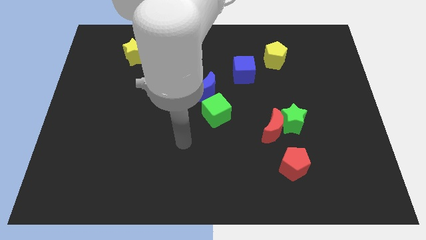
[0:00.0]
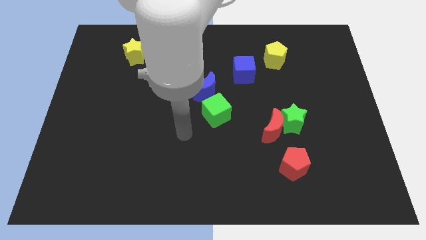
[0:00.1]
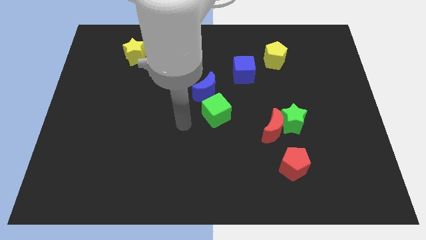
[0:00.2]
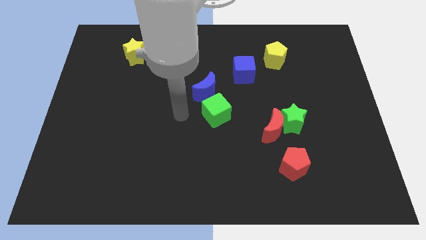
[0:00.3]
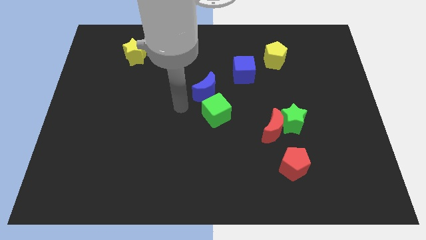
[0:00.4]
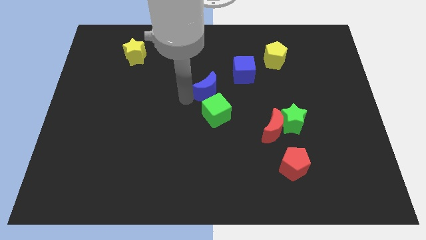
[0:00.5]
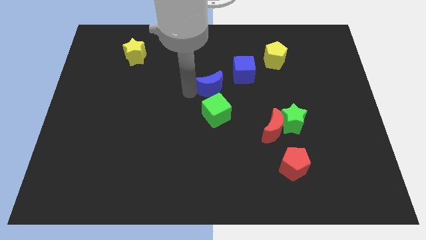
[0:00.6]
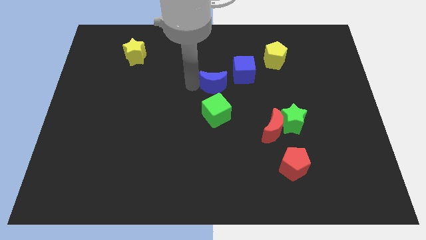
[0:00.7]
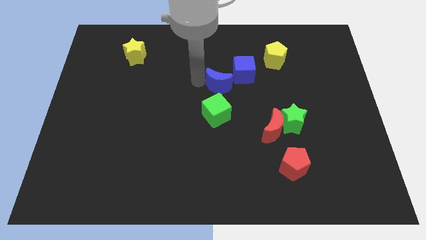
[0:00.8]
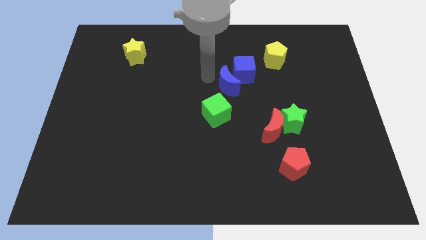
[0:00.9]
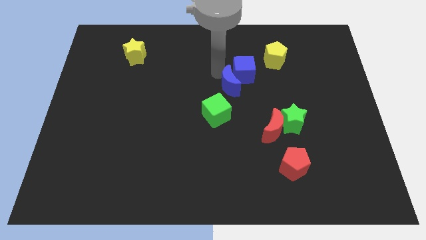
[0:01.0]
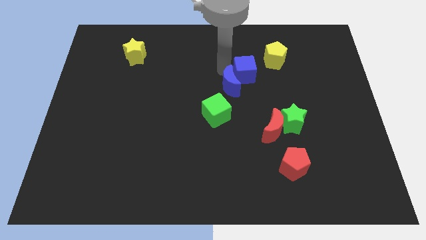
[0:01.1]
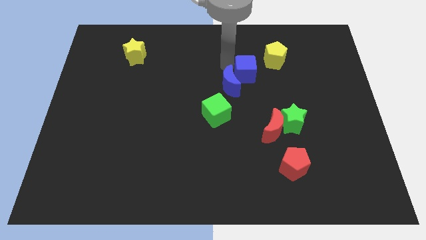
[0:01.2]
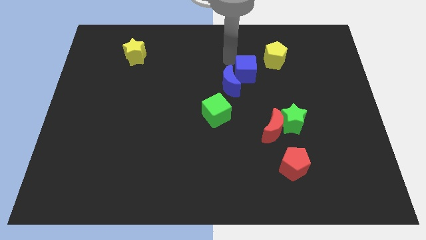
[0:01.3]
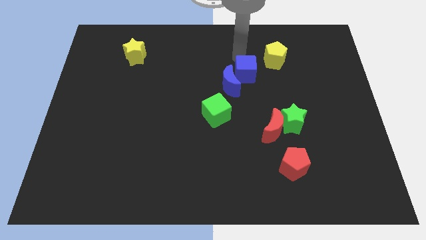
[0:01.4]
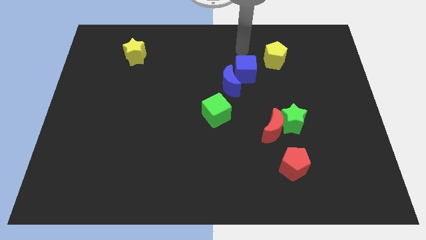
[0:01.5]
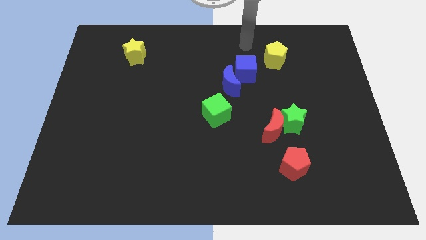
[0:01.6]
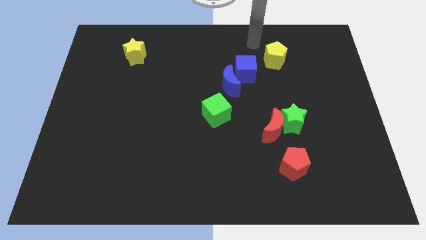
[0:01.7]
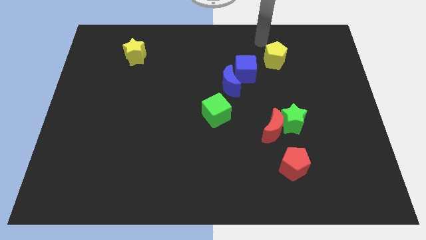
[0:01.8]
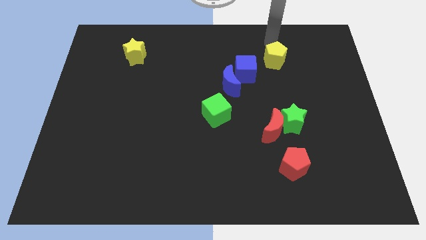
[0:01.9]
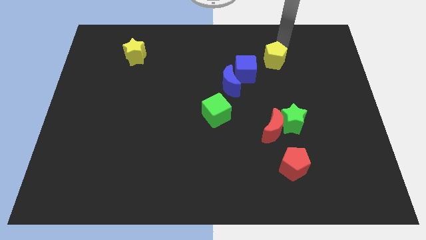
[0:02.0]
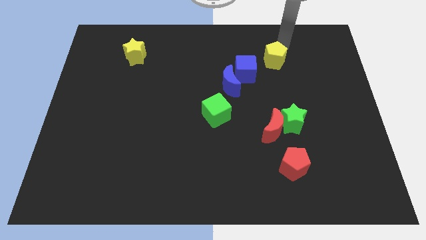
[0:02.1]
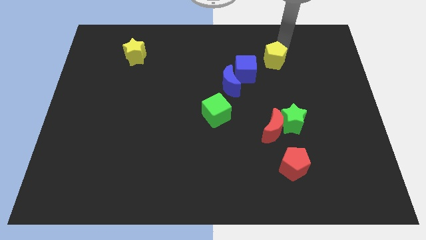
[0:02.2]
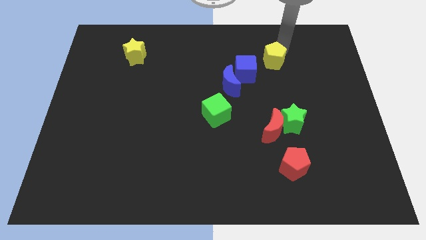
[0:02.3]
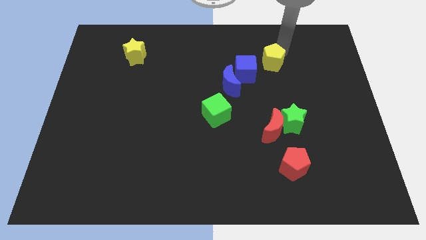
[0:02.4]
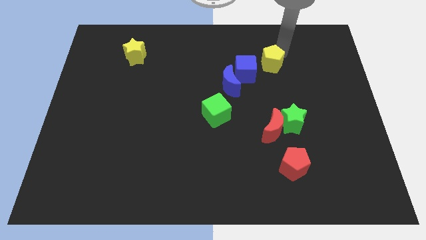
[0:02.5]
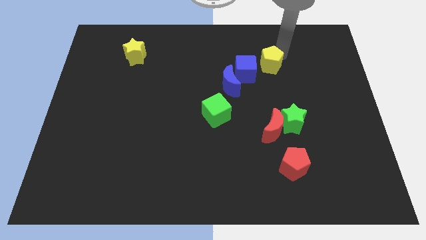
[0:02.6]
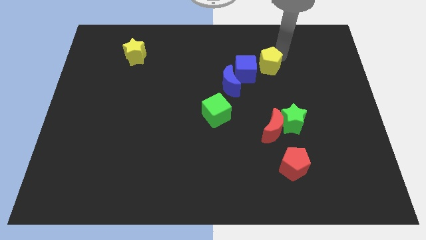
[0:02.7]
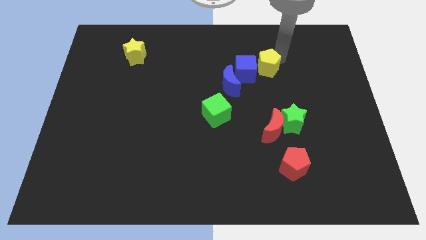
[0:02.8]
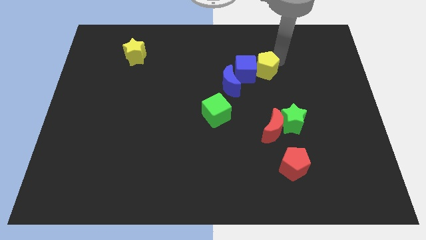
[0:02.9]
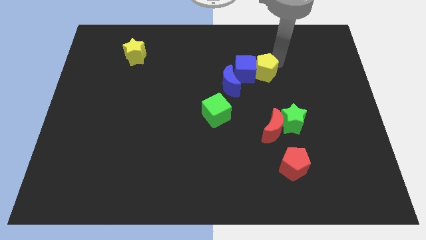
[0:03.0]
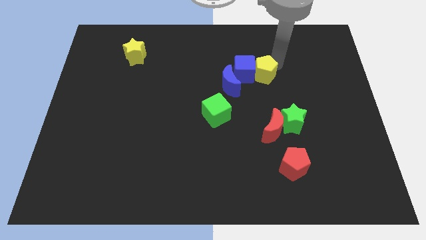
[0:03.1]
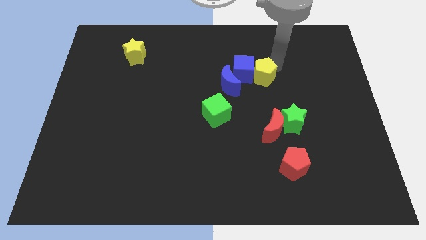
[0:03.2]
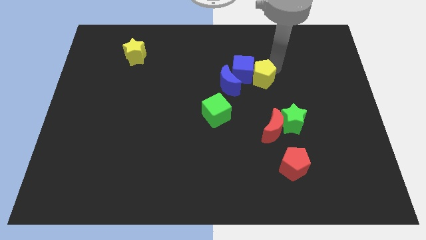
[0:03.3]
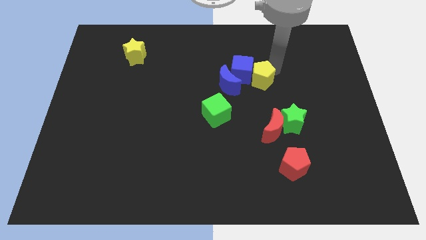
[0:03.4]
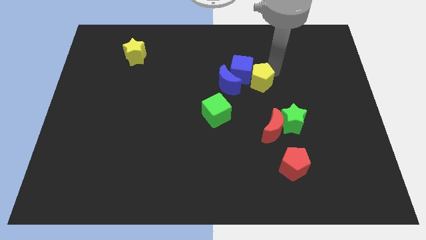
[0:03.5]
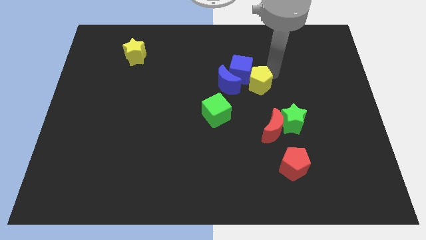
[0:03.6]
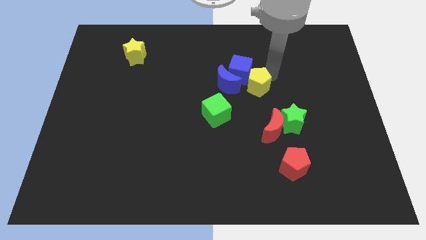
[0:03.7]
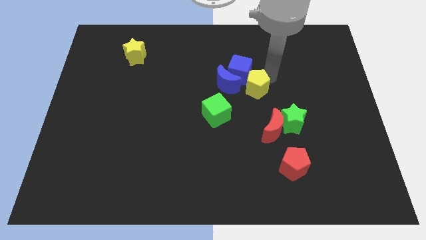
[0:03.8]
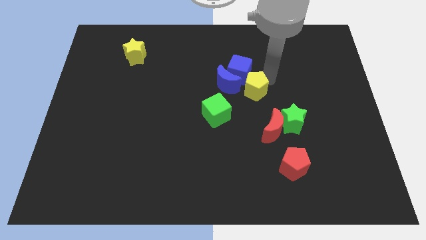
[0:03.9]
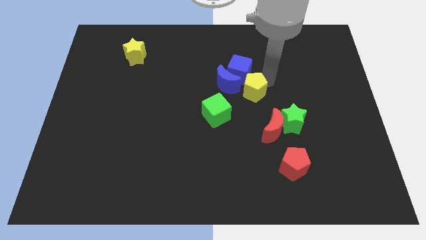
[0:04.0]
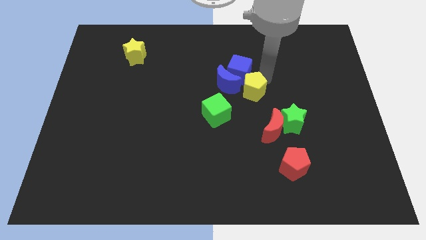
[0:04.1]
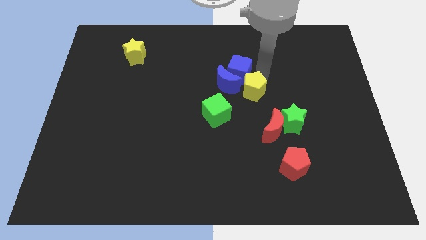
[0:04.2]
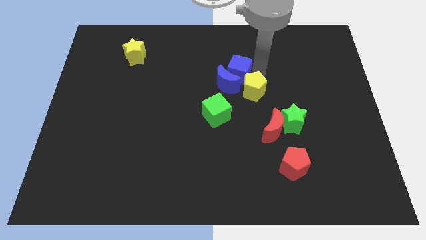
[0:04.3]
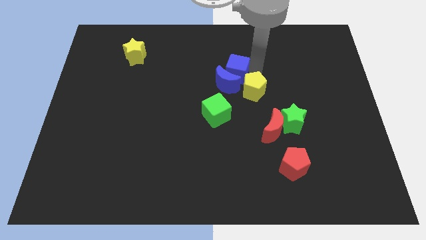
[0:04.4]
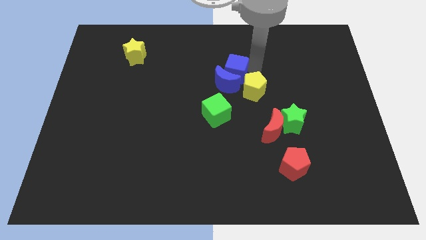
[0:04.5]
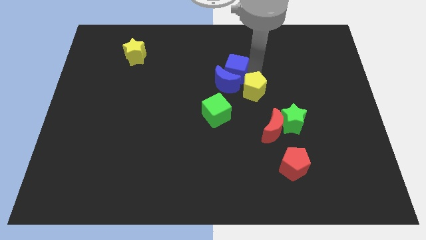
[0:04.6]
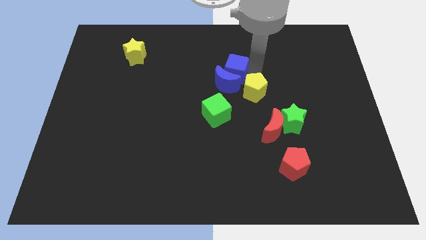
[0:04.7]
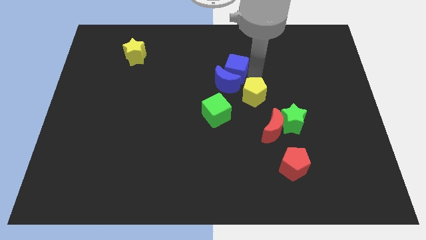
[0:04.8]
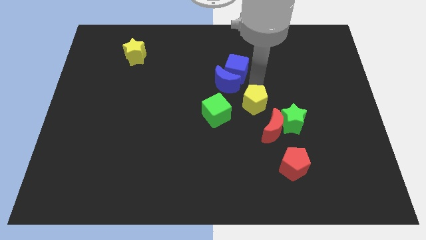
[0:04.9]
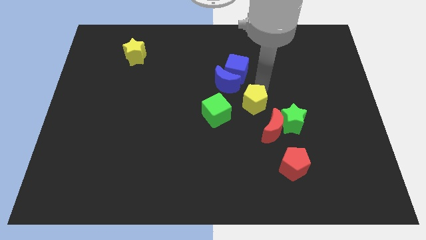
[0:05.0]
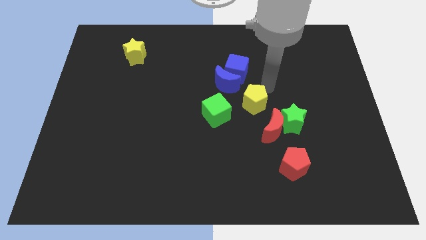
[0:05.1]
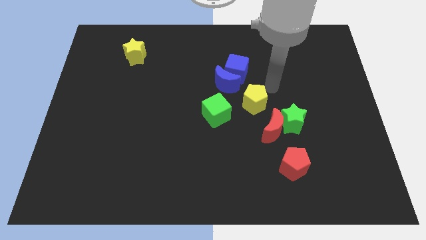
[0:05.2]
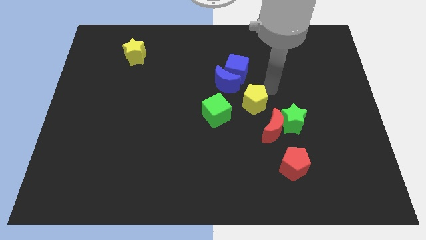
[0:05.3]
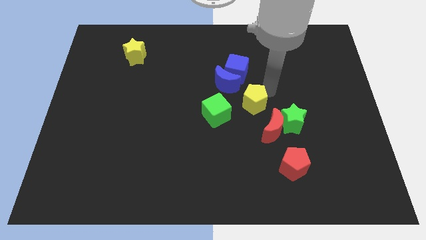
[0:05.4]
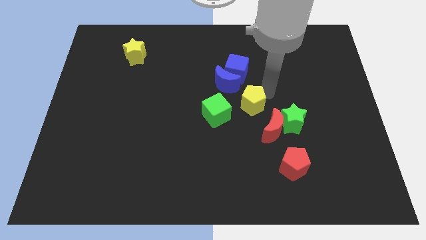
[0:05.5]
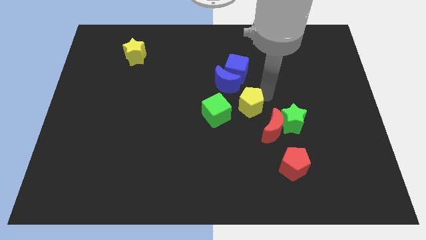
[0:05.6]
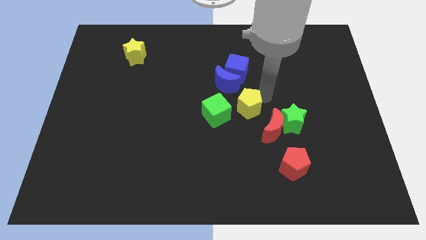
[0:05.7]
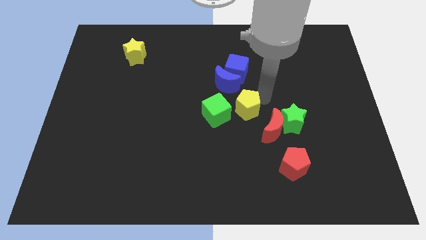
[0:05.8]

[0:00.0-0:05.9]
move the yellow pentagon to the bottom side of the blue moon

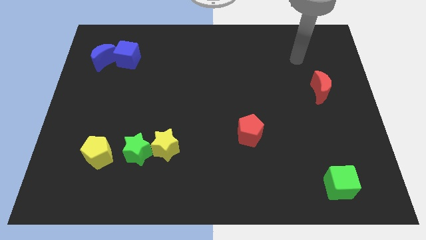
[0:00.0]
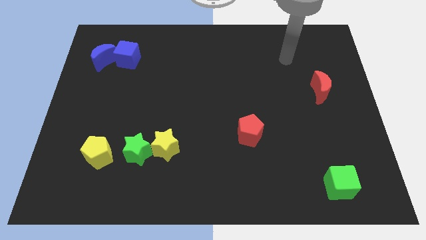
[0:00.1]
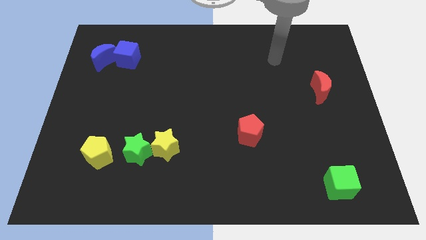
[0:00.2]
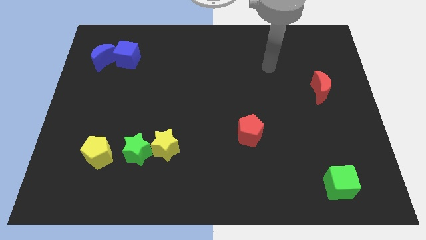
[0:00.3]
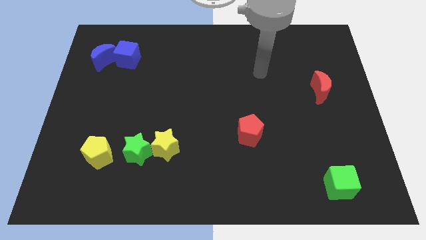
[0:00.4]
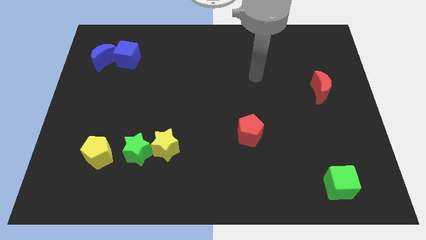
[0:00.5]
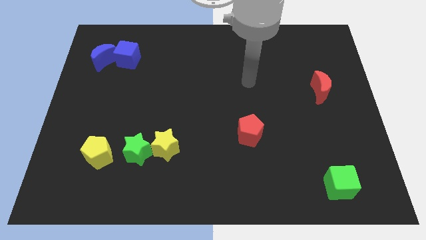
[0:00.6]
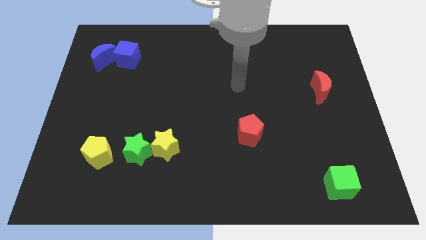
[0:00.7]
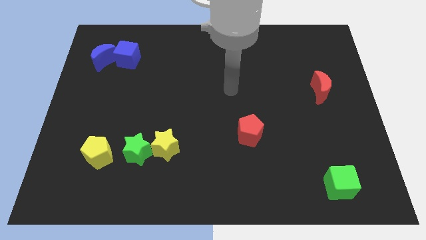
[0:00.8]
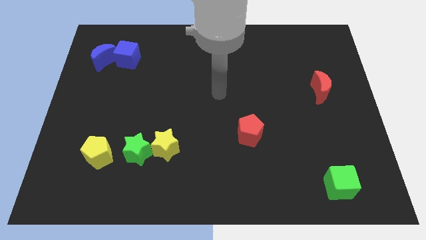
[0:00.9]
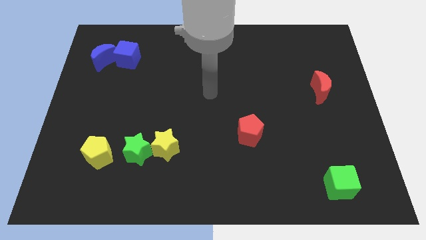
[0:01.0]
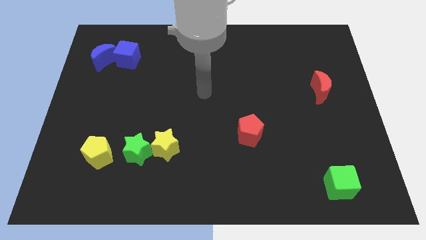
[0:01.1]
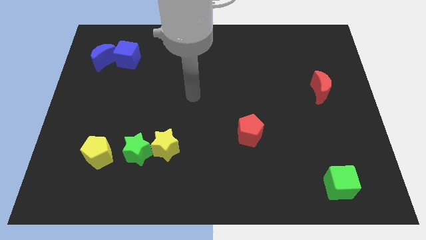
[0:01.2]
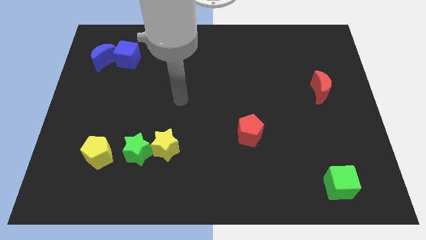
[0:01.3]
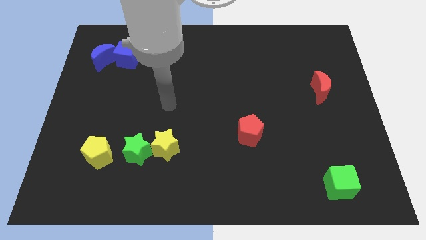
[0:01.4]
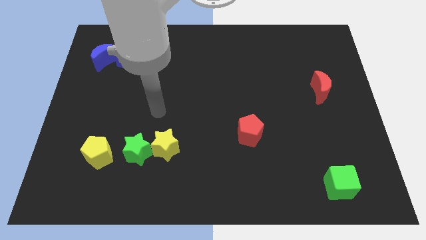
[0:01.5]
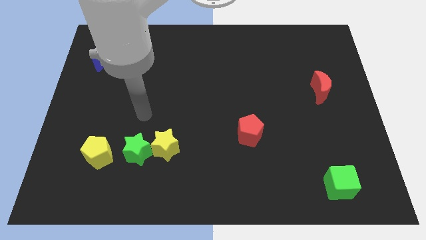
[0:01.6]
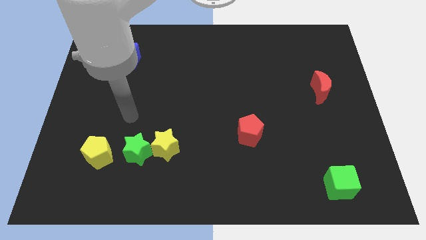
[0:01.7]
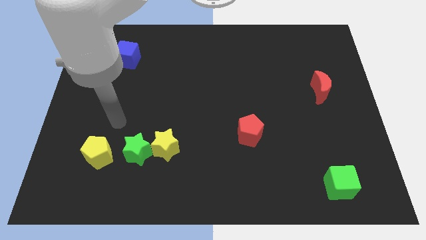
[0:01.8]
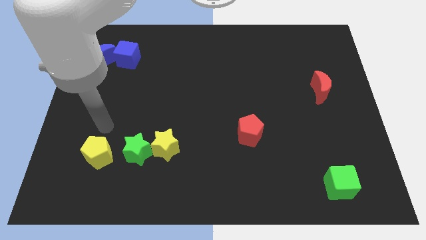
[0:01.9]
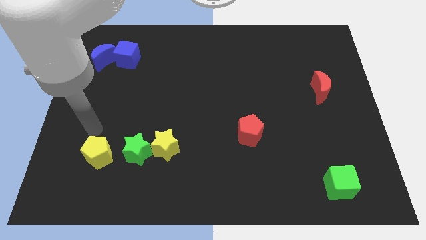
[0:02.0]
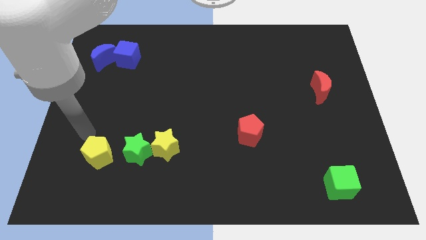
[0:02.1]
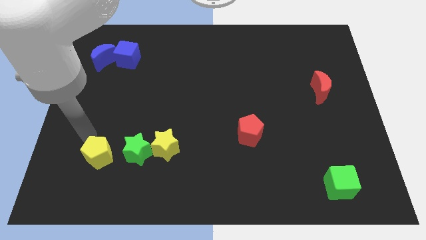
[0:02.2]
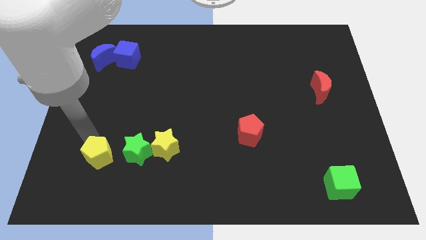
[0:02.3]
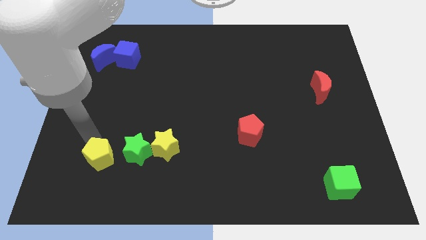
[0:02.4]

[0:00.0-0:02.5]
move the yellow pentagon diagonally down and to the left of the green star

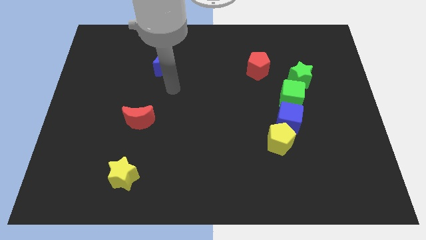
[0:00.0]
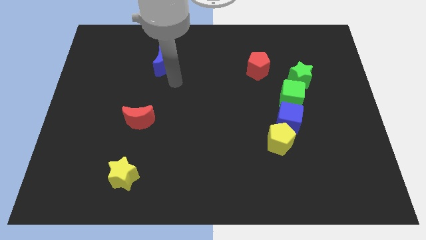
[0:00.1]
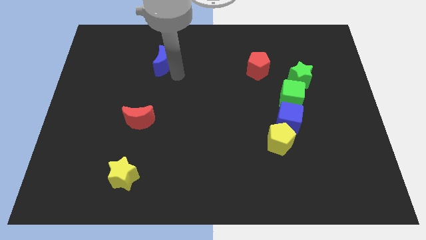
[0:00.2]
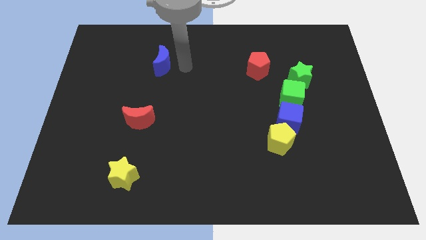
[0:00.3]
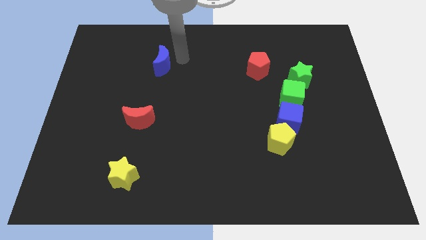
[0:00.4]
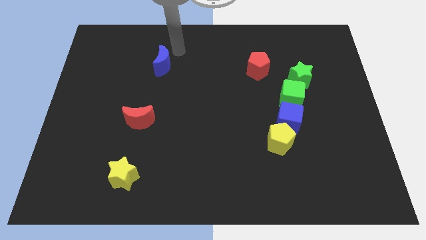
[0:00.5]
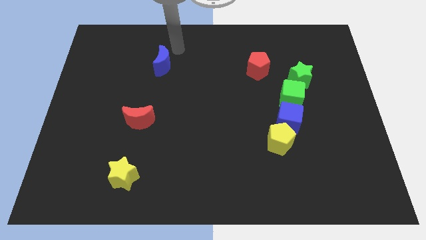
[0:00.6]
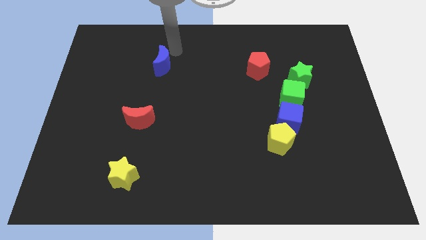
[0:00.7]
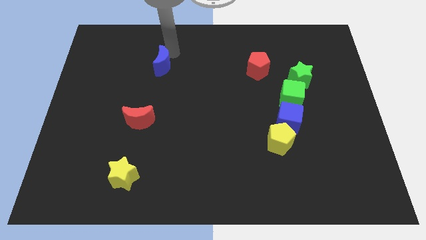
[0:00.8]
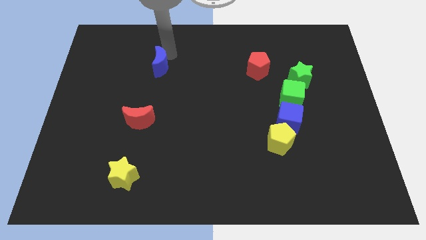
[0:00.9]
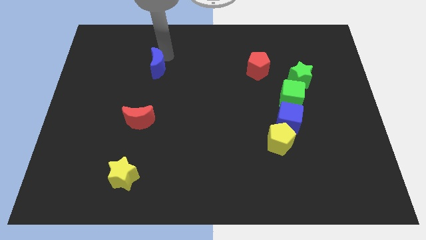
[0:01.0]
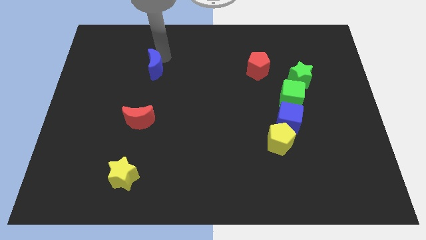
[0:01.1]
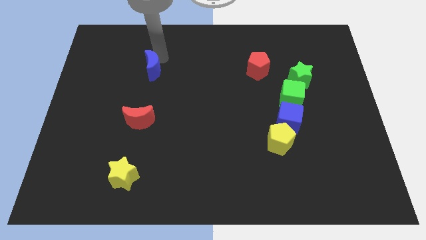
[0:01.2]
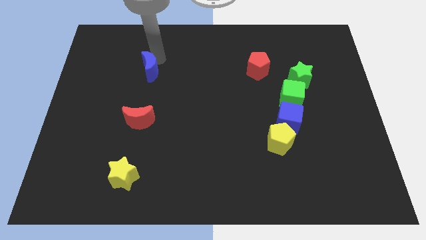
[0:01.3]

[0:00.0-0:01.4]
push the blue moon above the red moon
